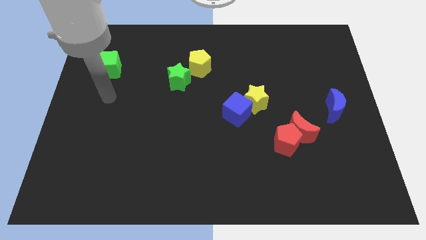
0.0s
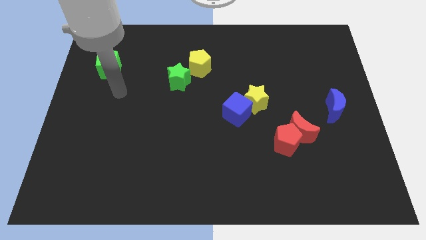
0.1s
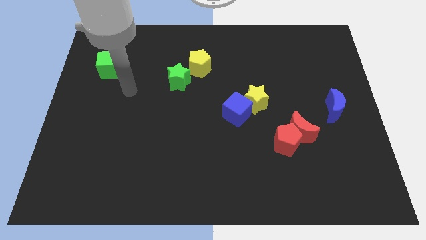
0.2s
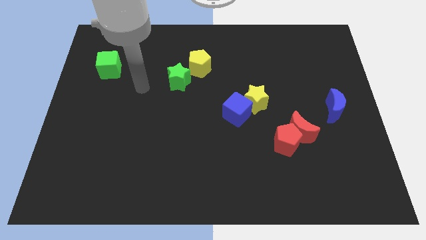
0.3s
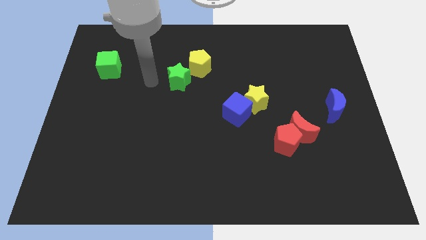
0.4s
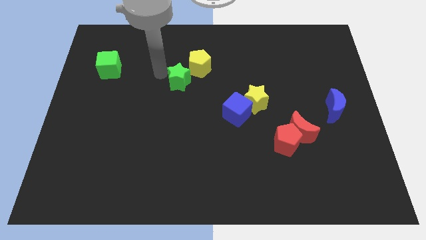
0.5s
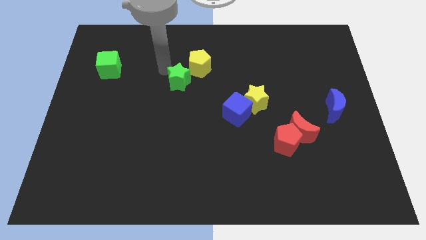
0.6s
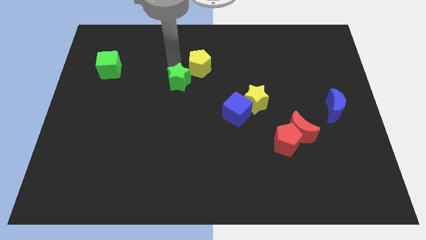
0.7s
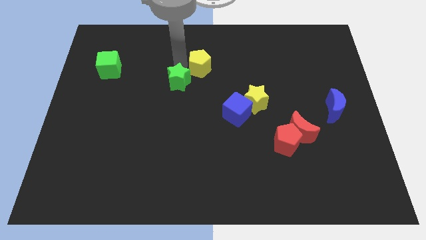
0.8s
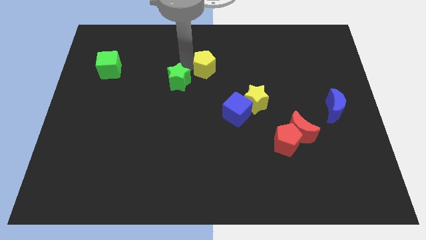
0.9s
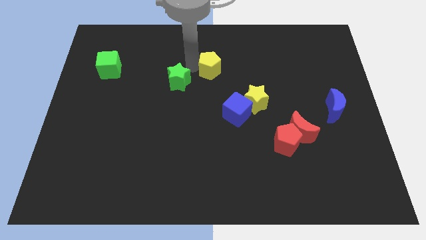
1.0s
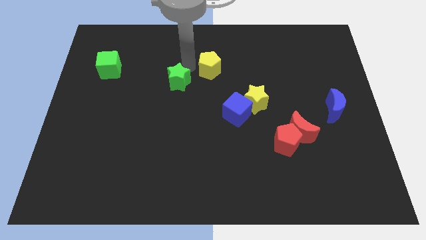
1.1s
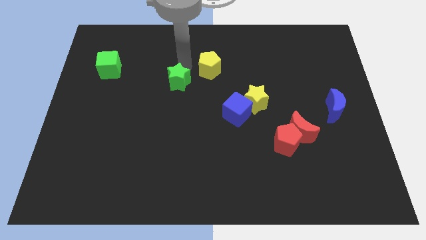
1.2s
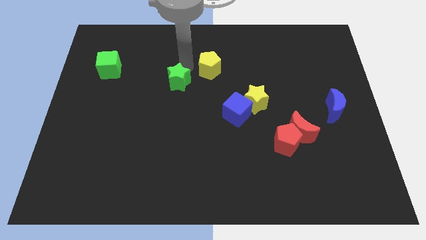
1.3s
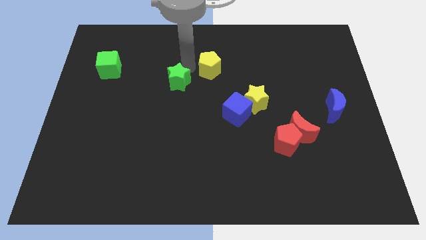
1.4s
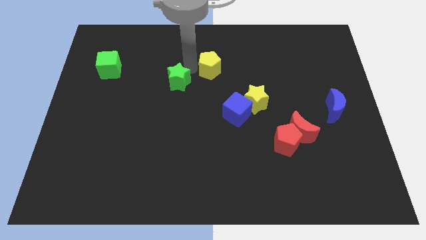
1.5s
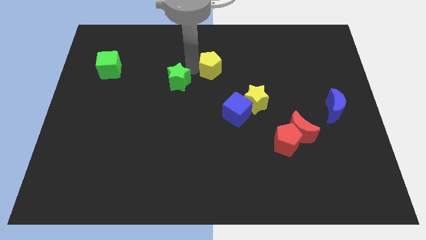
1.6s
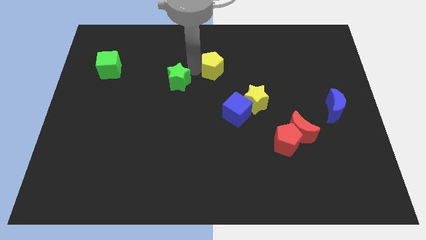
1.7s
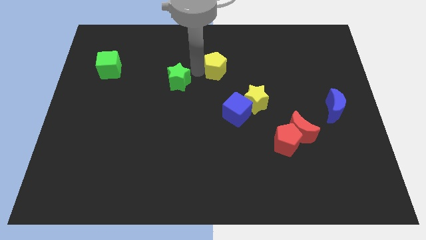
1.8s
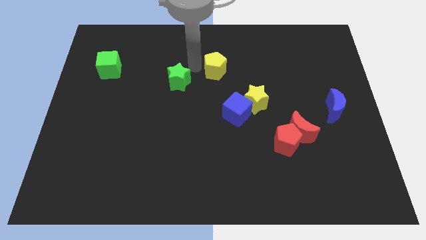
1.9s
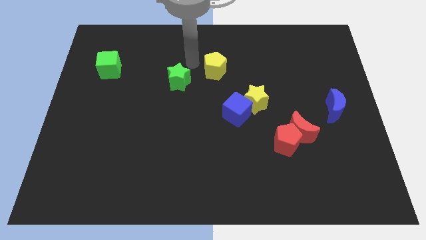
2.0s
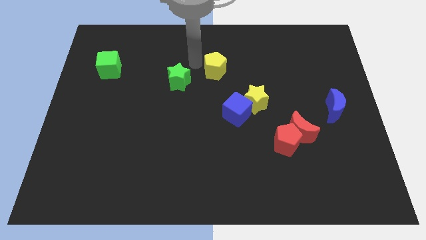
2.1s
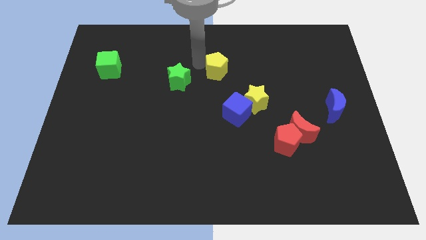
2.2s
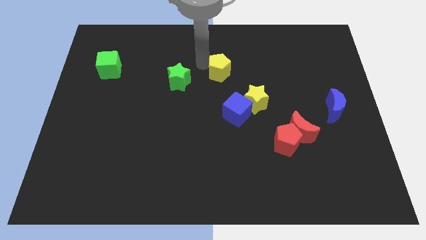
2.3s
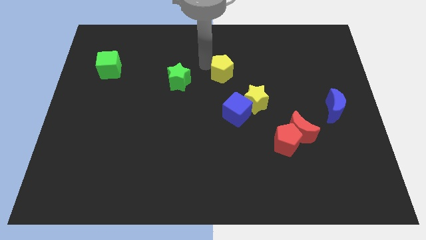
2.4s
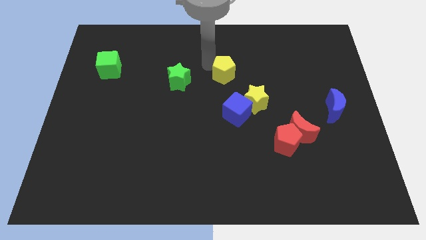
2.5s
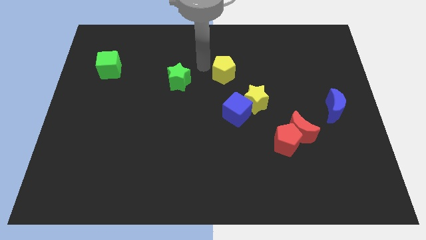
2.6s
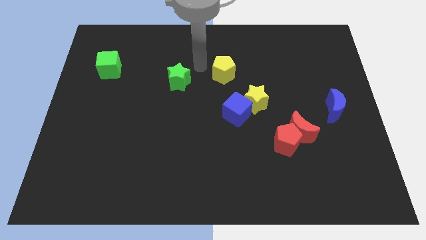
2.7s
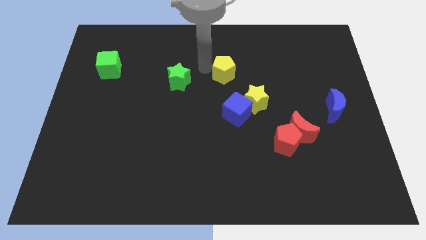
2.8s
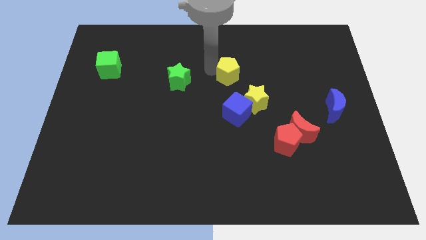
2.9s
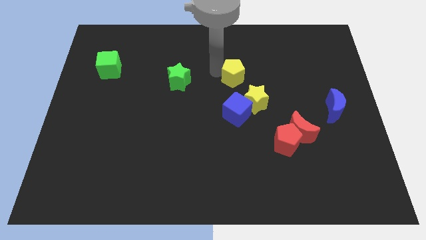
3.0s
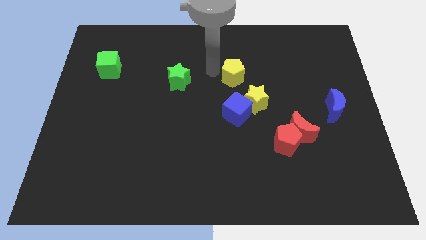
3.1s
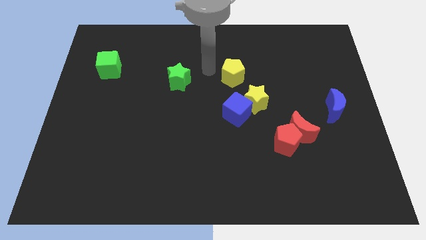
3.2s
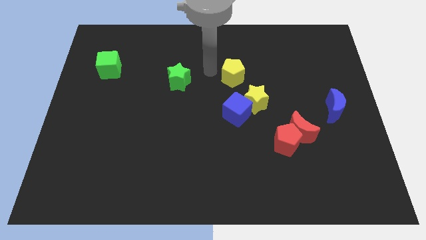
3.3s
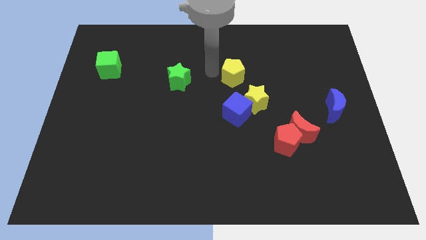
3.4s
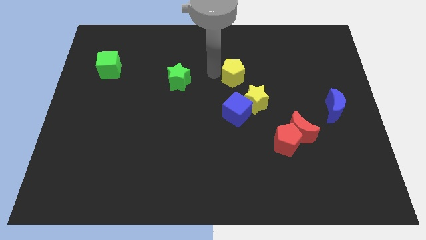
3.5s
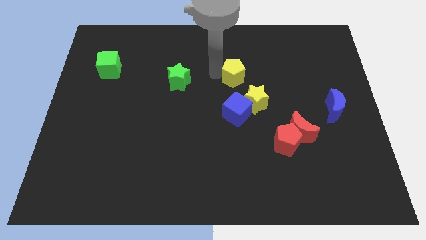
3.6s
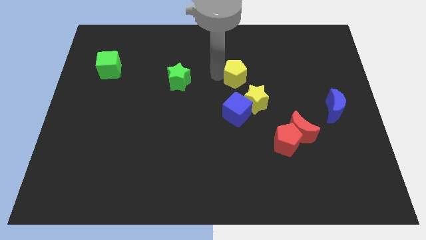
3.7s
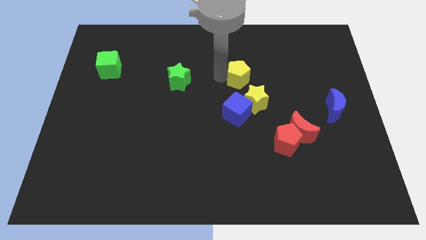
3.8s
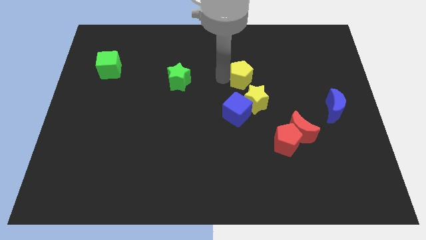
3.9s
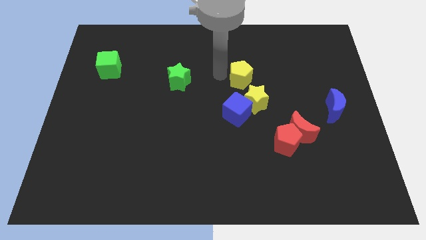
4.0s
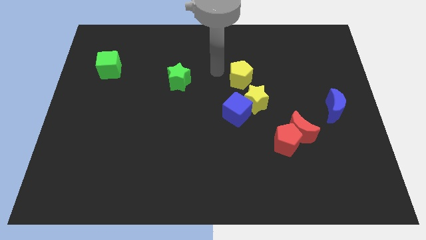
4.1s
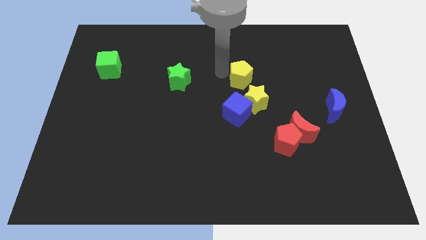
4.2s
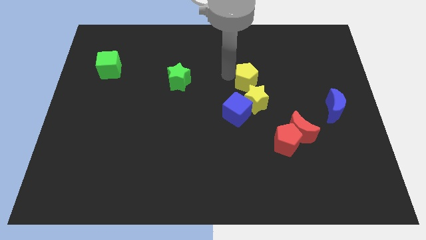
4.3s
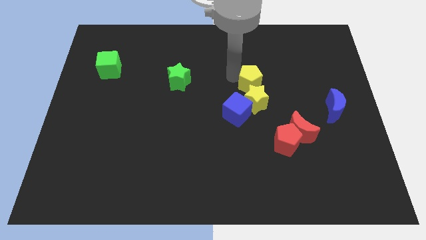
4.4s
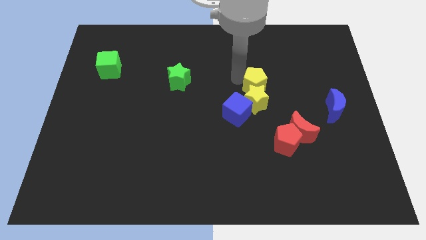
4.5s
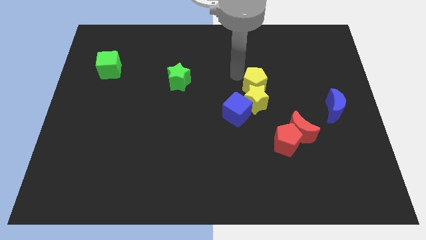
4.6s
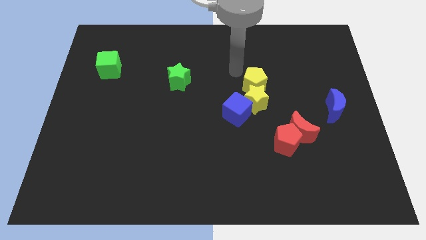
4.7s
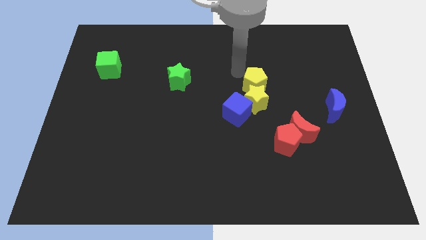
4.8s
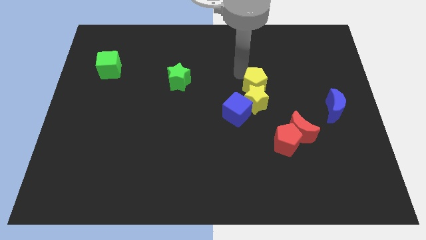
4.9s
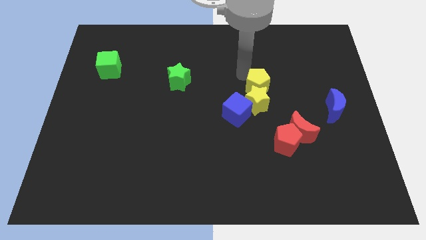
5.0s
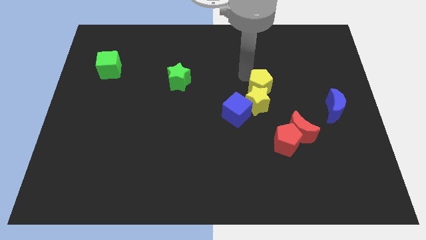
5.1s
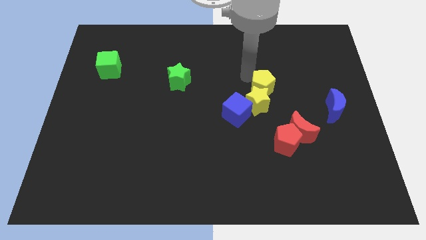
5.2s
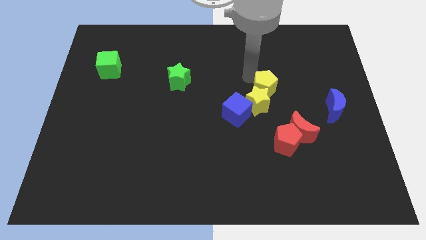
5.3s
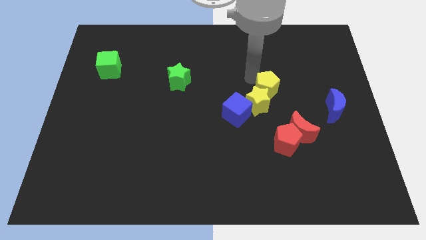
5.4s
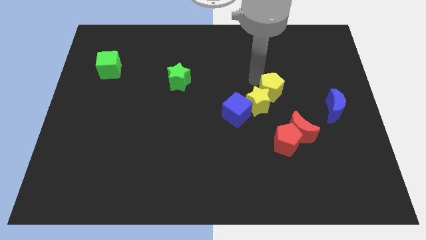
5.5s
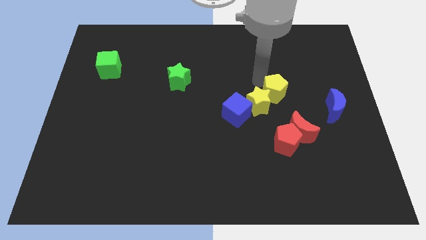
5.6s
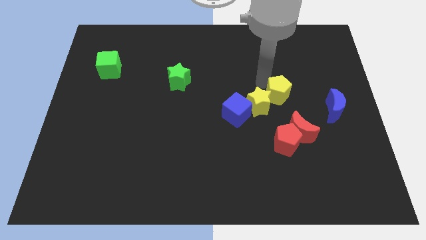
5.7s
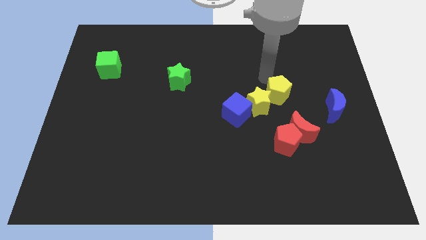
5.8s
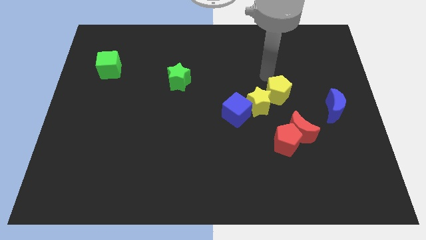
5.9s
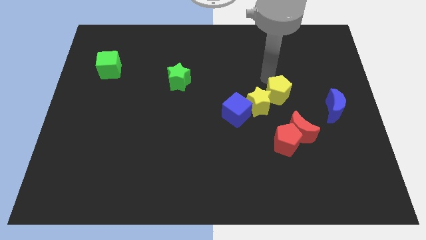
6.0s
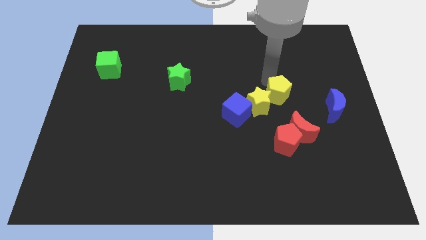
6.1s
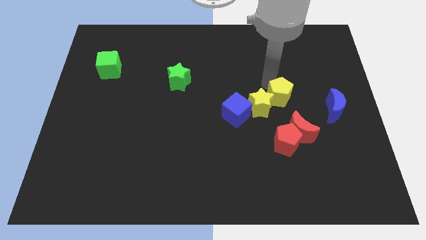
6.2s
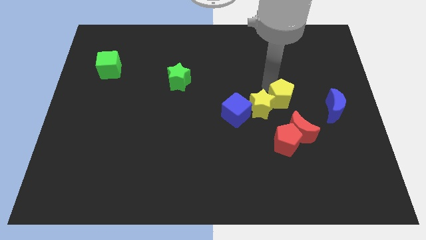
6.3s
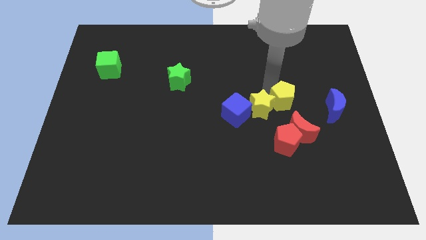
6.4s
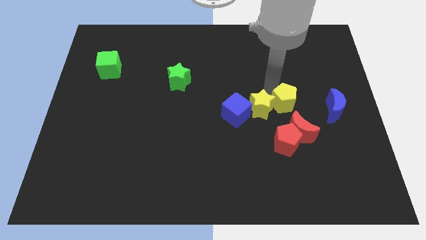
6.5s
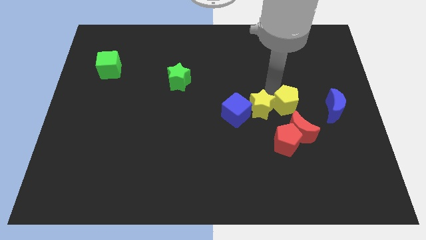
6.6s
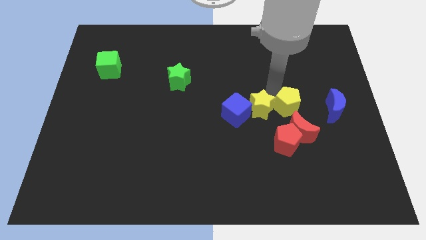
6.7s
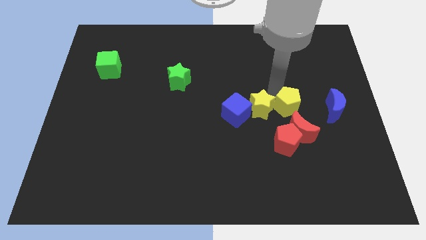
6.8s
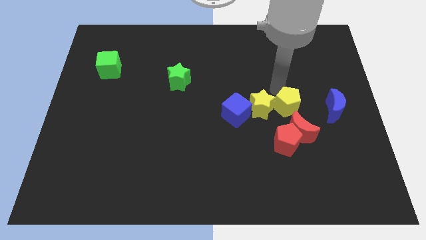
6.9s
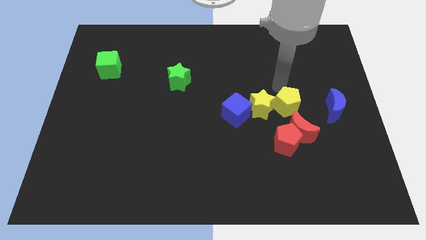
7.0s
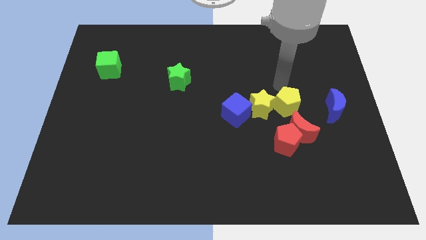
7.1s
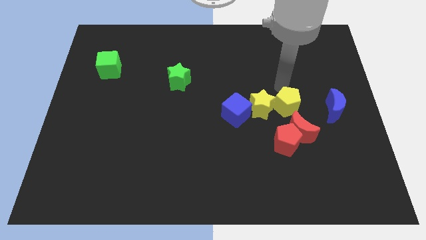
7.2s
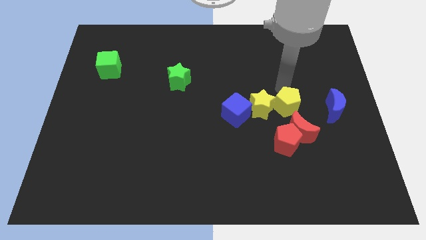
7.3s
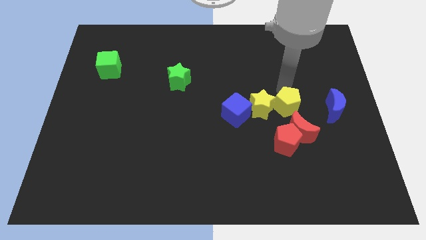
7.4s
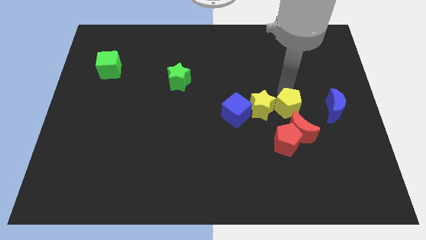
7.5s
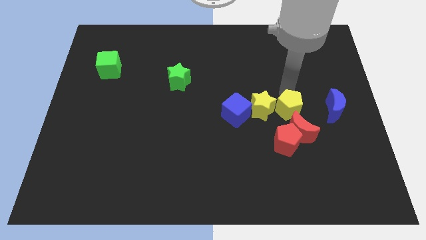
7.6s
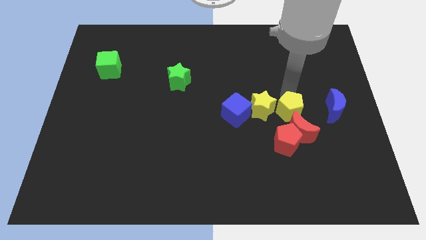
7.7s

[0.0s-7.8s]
put the yellow pentagon towards the red moon
